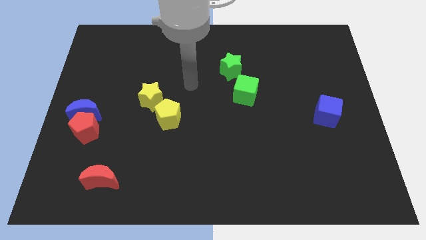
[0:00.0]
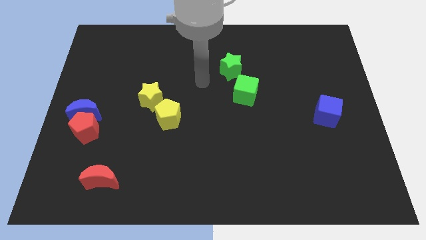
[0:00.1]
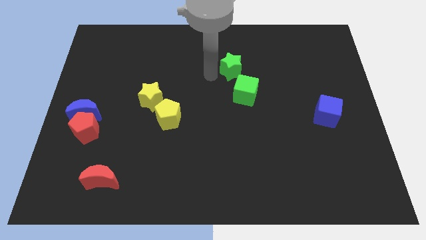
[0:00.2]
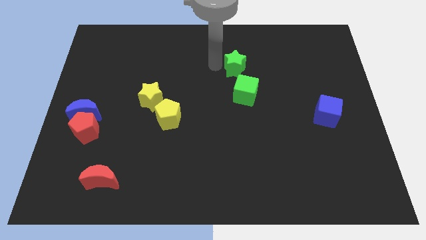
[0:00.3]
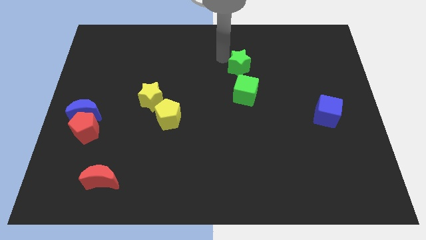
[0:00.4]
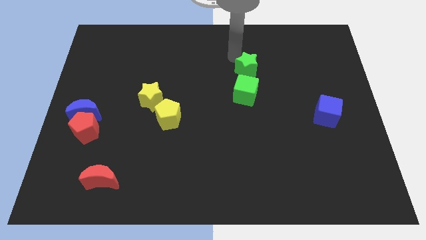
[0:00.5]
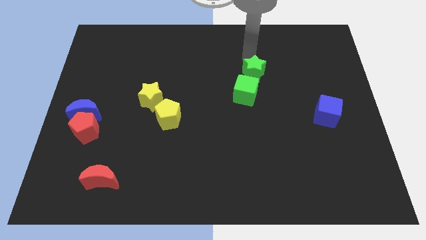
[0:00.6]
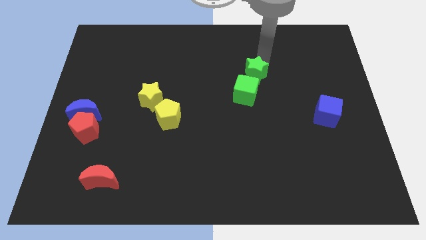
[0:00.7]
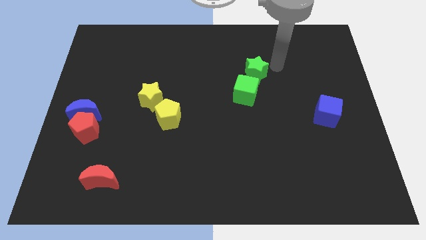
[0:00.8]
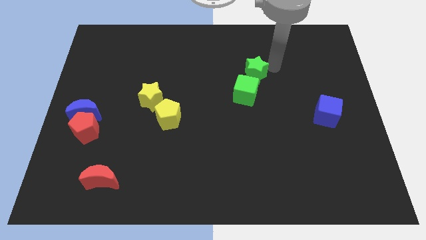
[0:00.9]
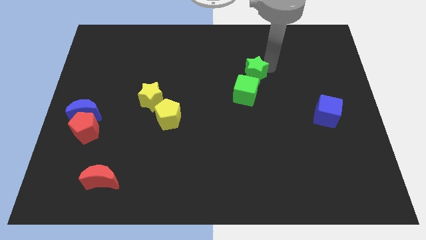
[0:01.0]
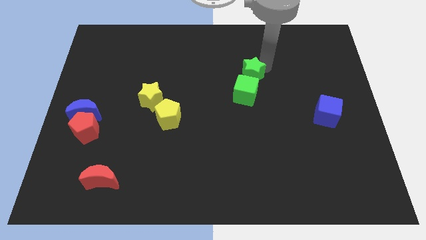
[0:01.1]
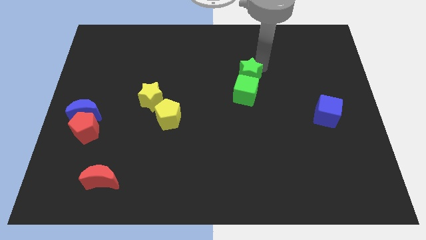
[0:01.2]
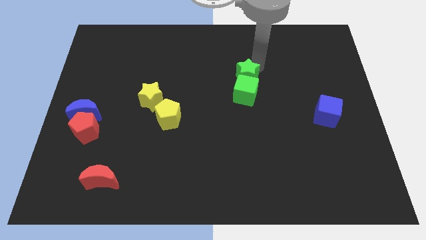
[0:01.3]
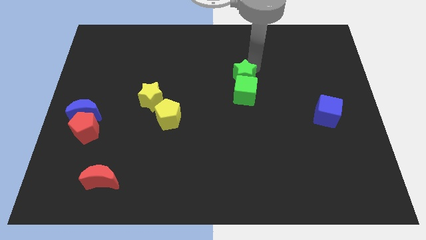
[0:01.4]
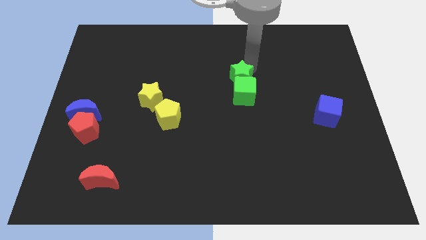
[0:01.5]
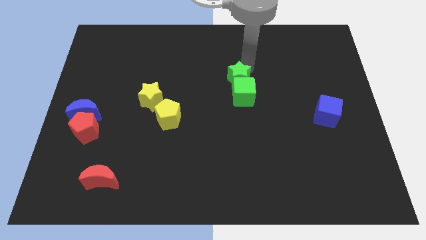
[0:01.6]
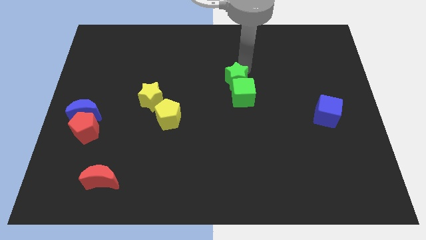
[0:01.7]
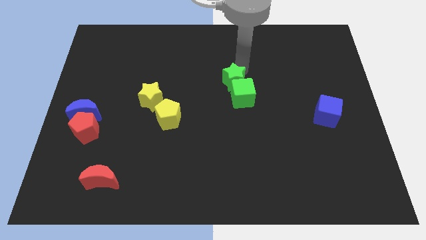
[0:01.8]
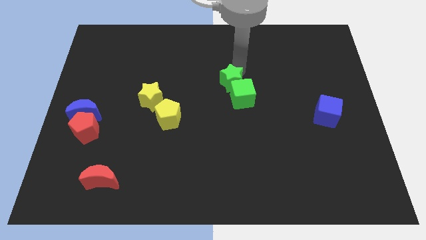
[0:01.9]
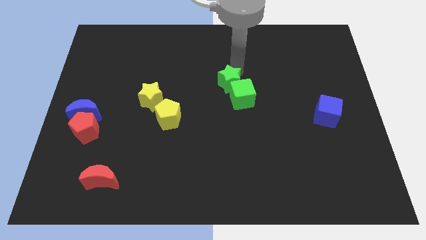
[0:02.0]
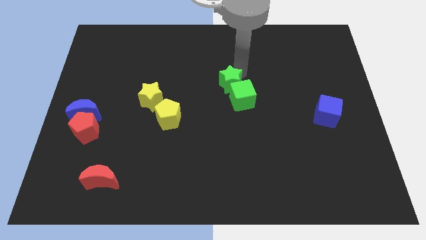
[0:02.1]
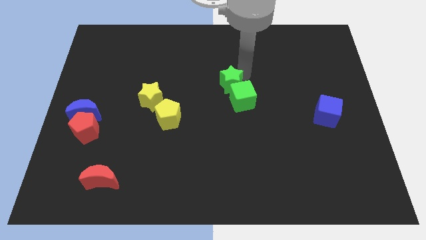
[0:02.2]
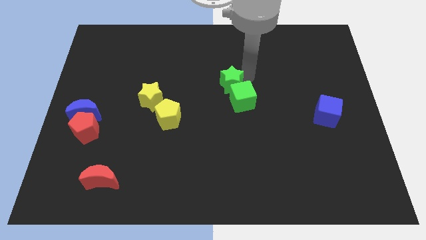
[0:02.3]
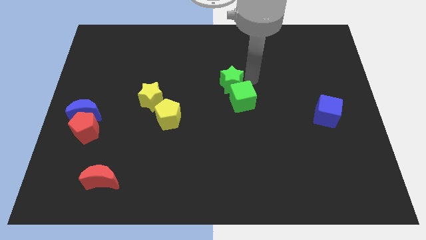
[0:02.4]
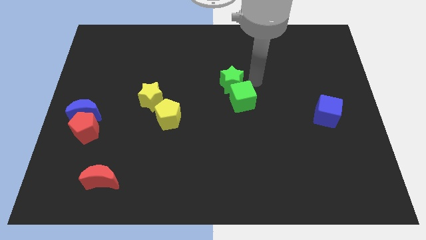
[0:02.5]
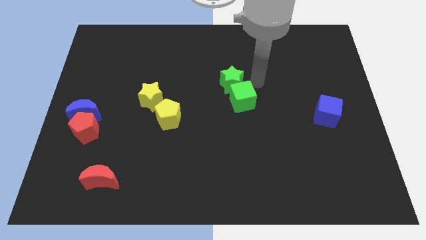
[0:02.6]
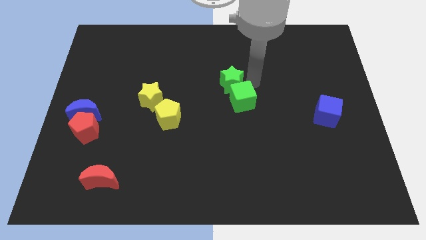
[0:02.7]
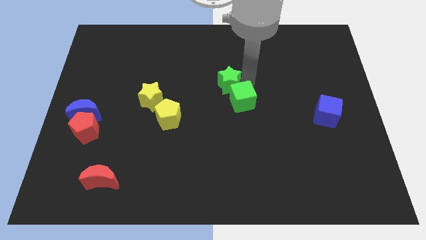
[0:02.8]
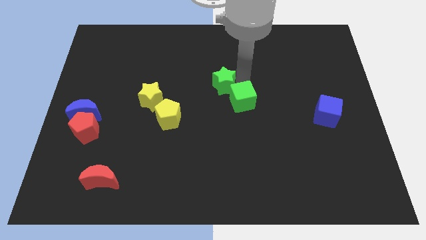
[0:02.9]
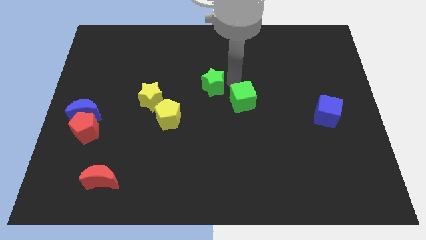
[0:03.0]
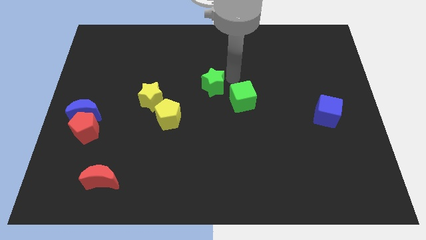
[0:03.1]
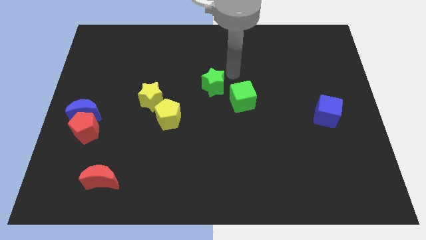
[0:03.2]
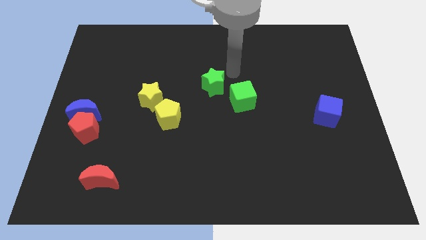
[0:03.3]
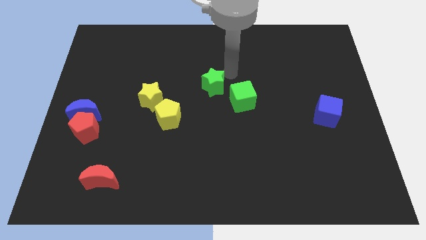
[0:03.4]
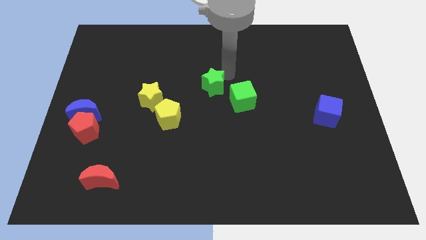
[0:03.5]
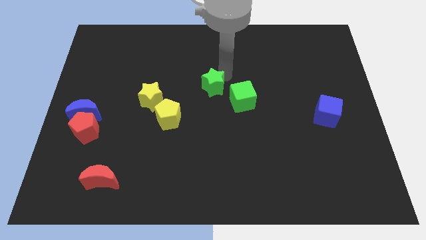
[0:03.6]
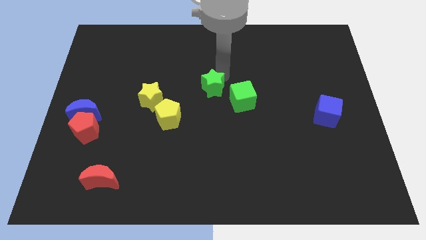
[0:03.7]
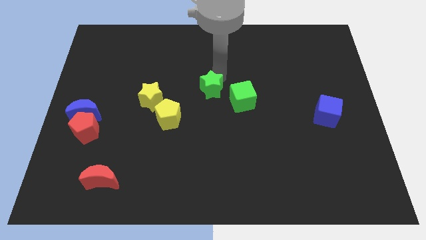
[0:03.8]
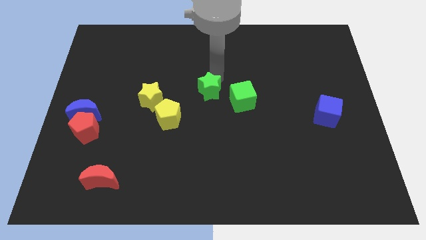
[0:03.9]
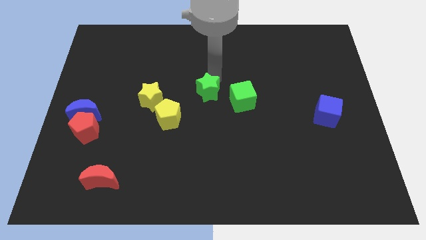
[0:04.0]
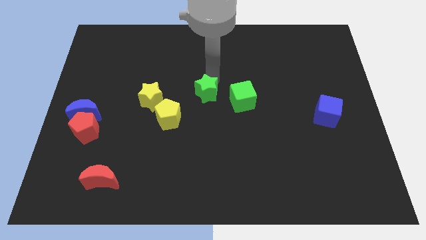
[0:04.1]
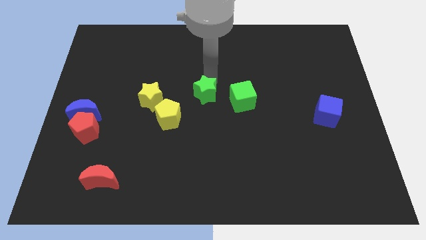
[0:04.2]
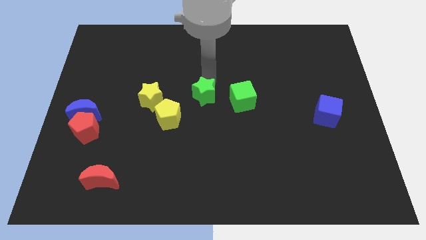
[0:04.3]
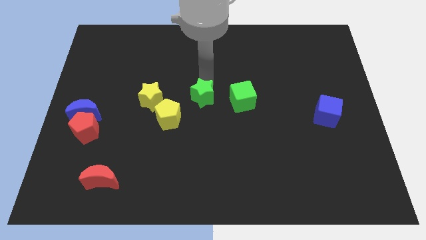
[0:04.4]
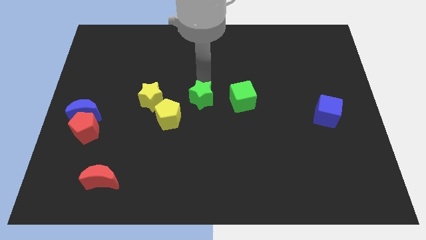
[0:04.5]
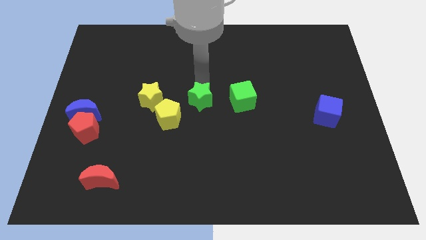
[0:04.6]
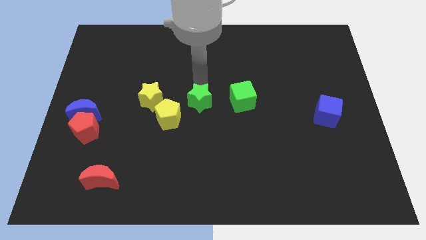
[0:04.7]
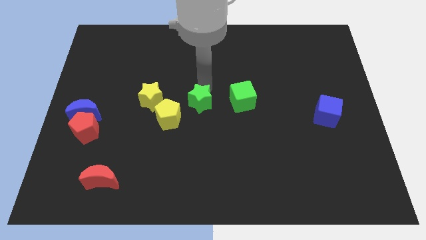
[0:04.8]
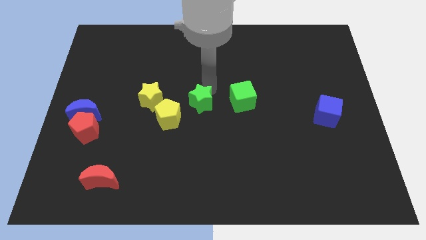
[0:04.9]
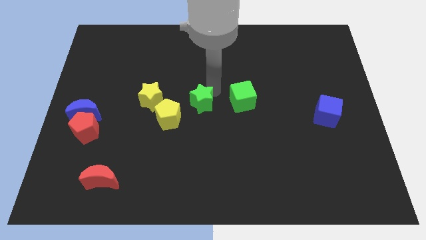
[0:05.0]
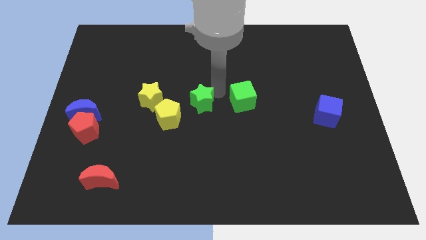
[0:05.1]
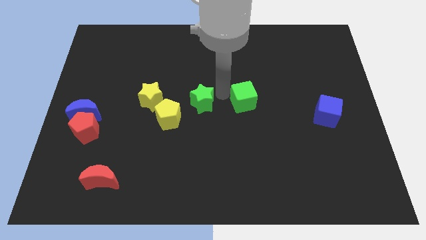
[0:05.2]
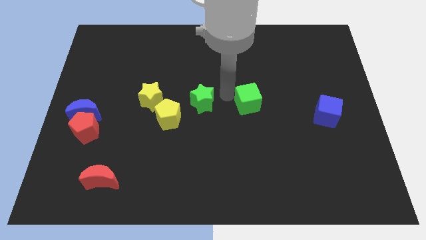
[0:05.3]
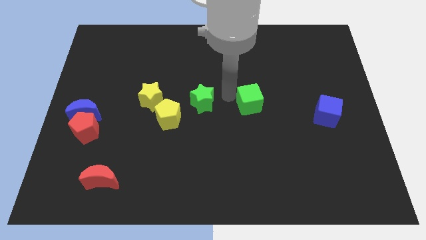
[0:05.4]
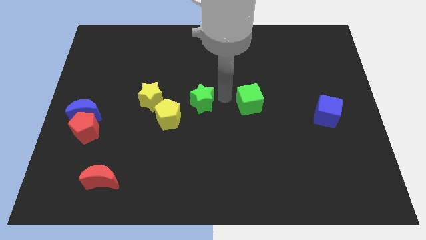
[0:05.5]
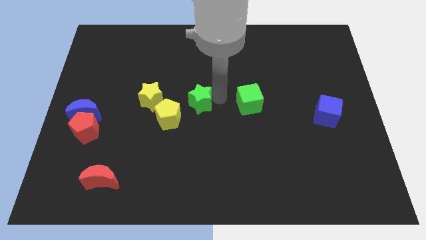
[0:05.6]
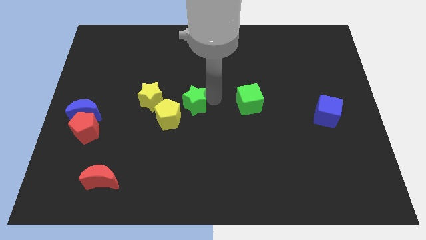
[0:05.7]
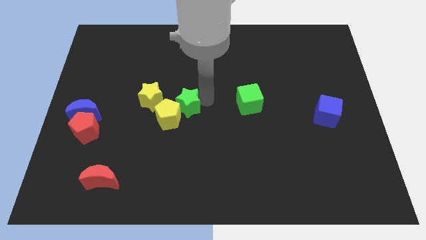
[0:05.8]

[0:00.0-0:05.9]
move the green star close to the yellow pentagon

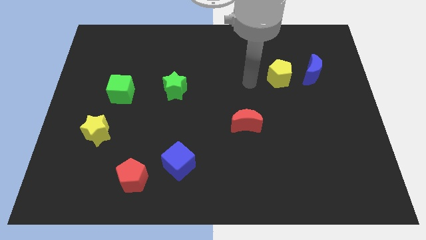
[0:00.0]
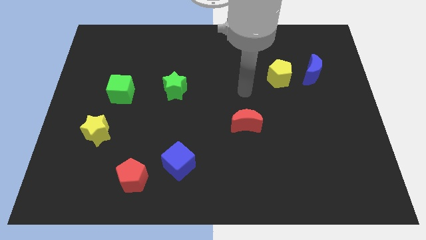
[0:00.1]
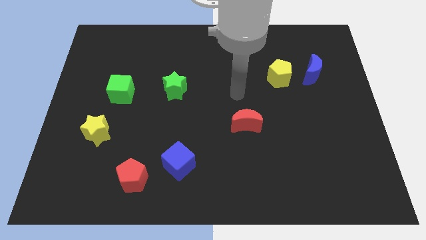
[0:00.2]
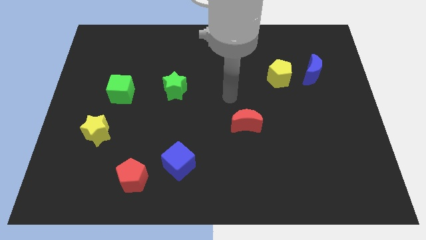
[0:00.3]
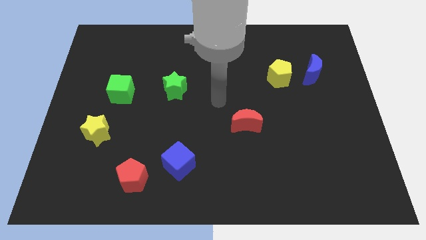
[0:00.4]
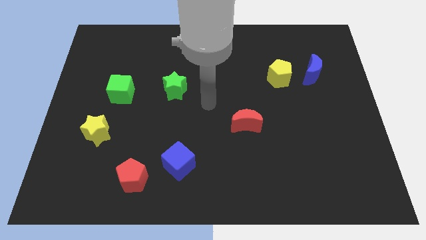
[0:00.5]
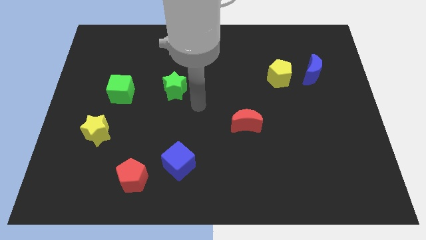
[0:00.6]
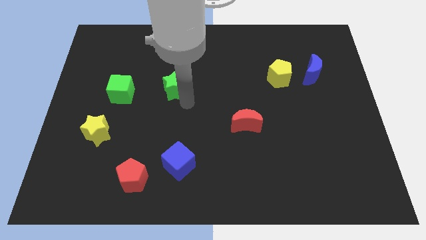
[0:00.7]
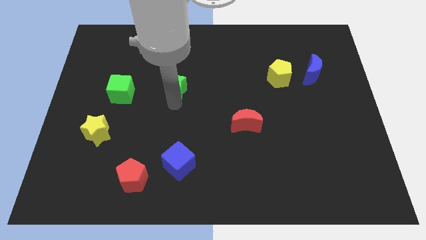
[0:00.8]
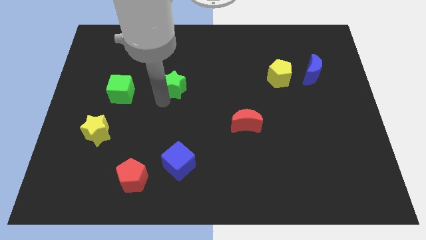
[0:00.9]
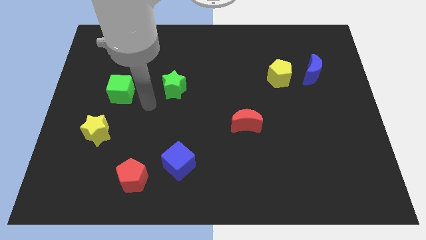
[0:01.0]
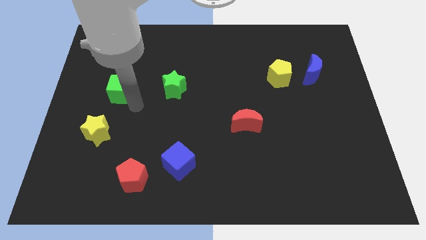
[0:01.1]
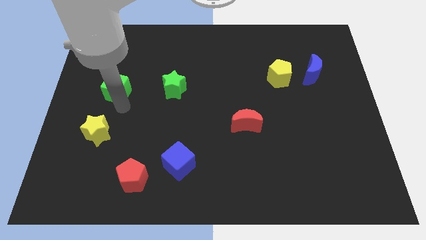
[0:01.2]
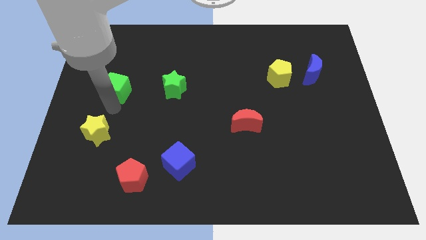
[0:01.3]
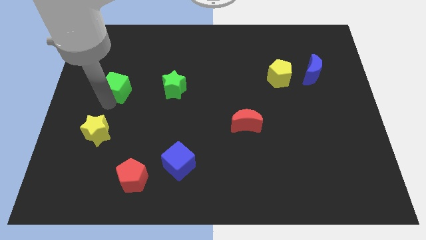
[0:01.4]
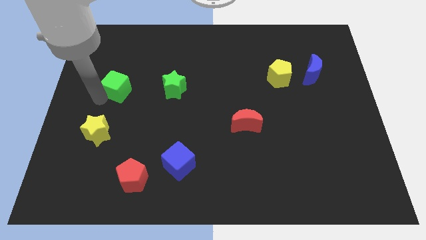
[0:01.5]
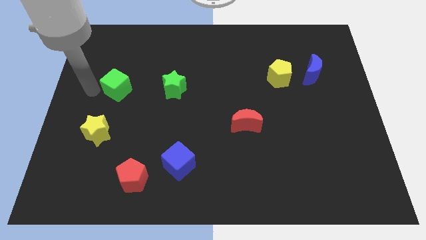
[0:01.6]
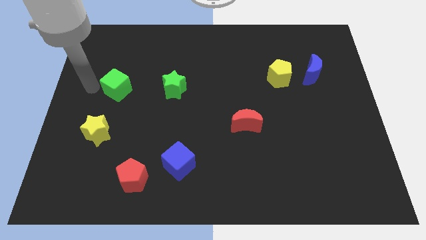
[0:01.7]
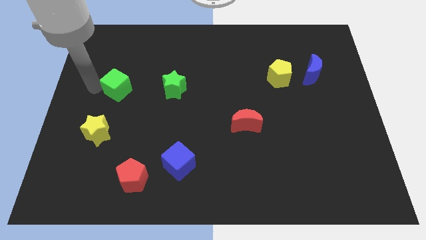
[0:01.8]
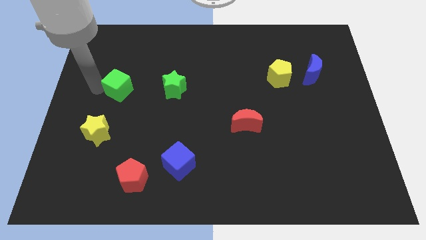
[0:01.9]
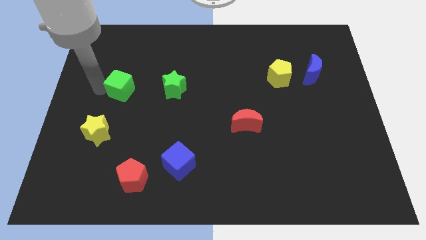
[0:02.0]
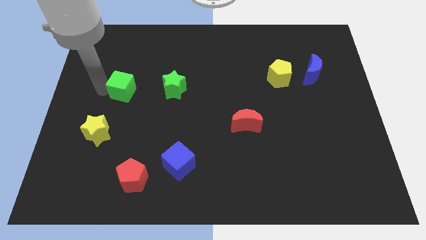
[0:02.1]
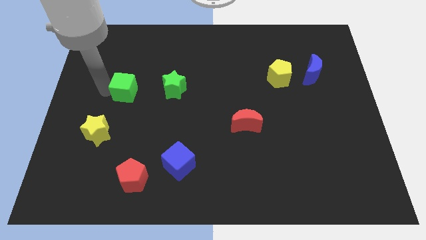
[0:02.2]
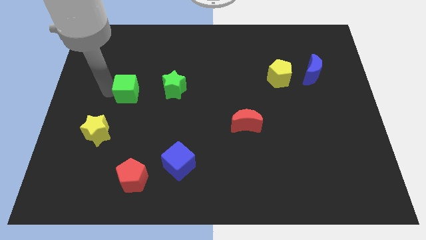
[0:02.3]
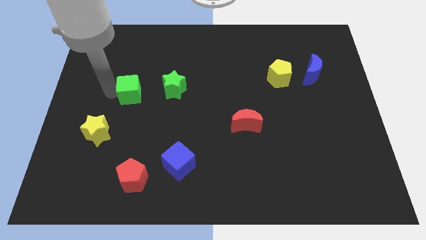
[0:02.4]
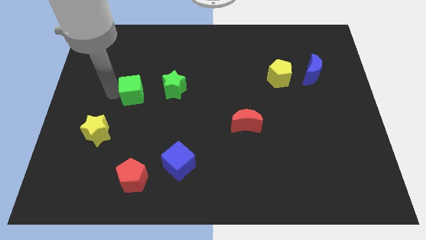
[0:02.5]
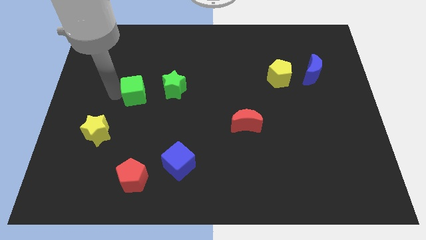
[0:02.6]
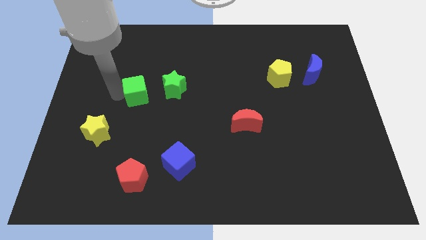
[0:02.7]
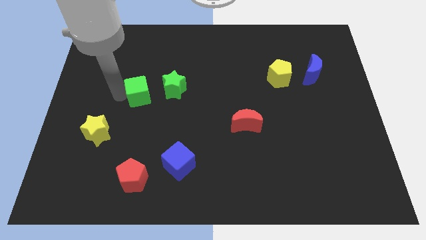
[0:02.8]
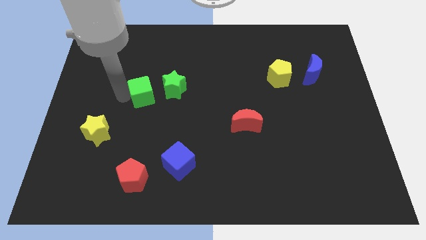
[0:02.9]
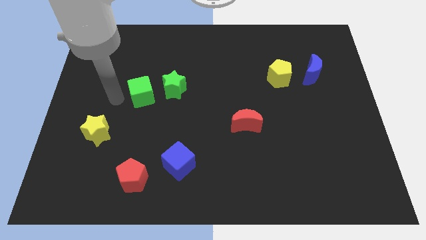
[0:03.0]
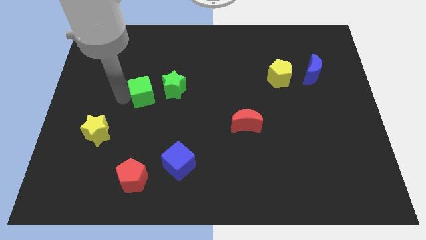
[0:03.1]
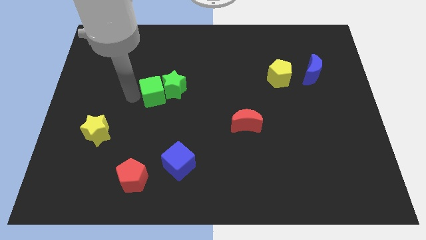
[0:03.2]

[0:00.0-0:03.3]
move the green cube next to the green star
